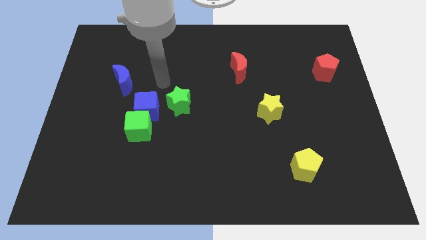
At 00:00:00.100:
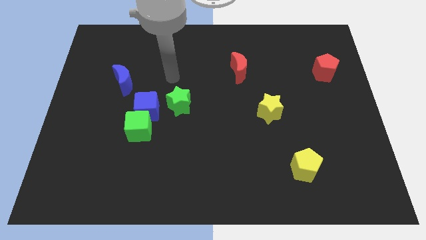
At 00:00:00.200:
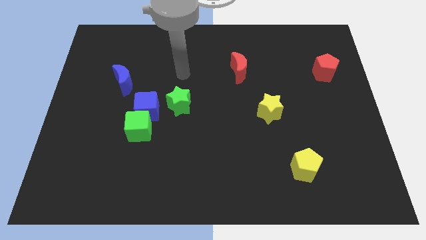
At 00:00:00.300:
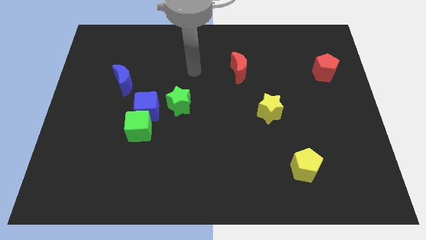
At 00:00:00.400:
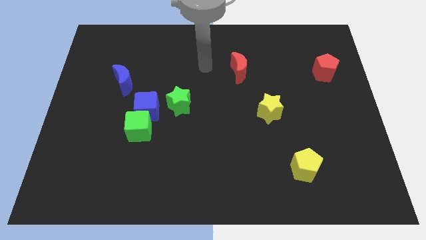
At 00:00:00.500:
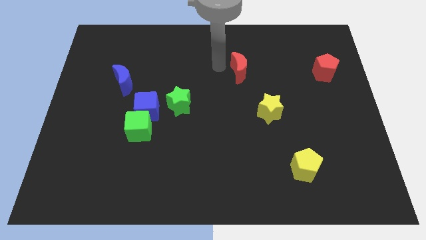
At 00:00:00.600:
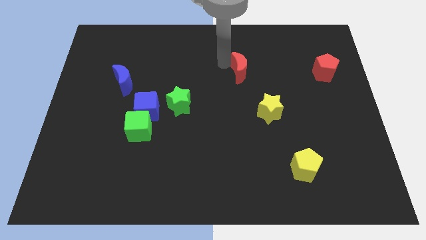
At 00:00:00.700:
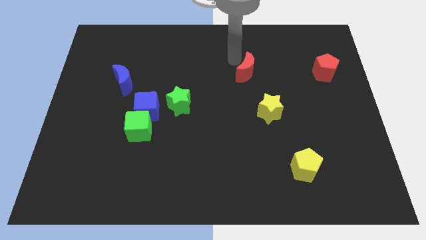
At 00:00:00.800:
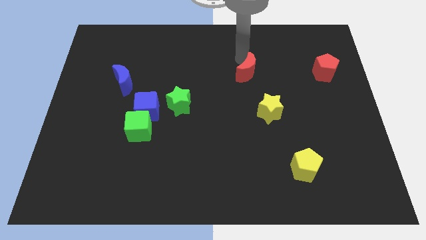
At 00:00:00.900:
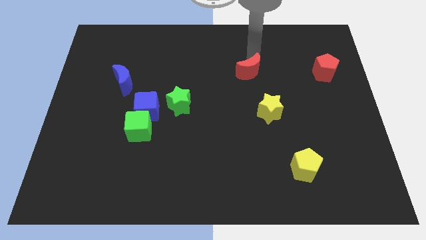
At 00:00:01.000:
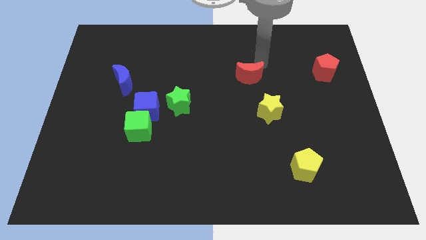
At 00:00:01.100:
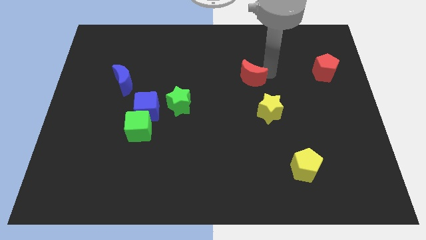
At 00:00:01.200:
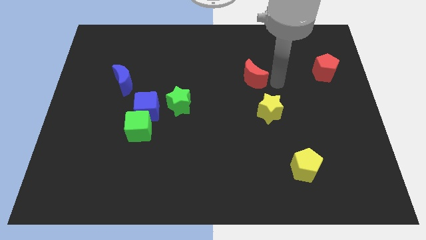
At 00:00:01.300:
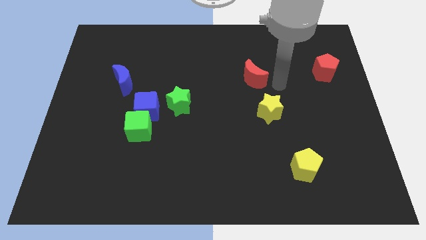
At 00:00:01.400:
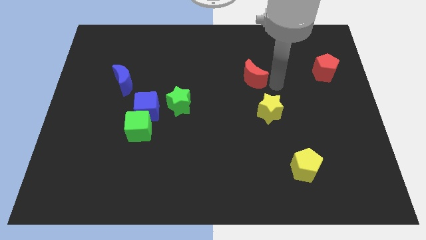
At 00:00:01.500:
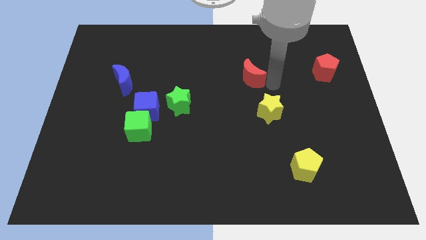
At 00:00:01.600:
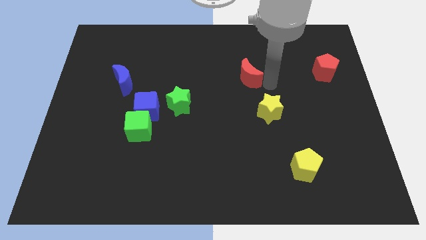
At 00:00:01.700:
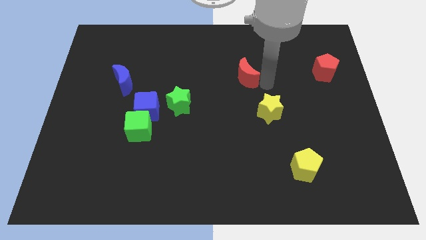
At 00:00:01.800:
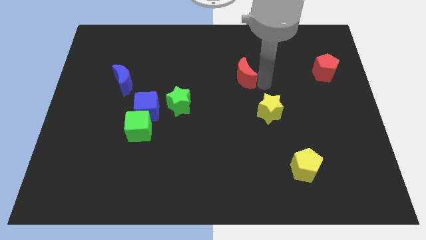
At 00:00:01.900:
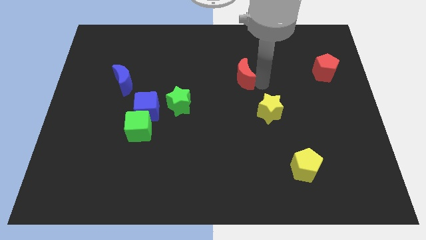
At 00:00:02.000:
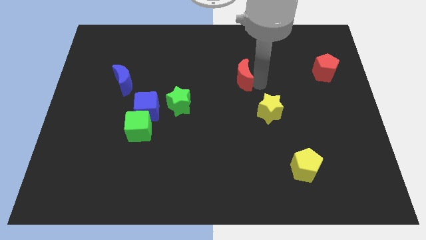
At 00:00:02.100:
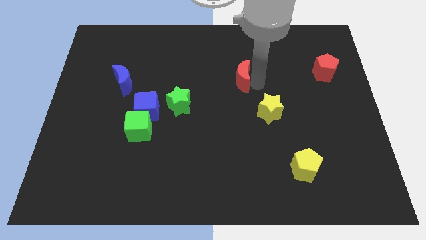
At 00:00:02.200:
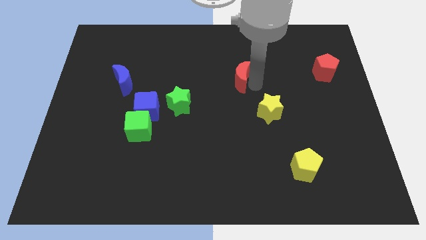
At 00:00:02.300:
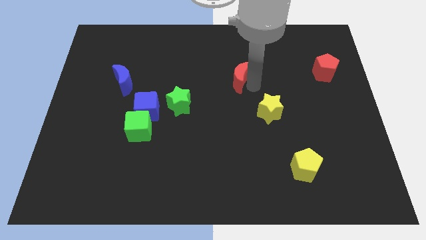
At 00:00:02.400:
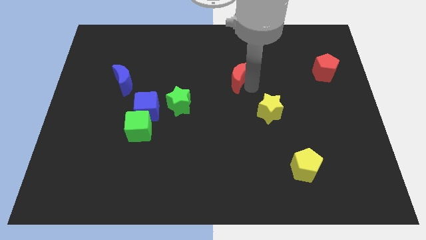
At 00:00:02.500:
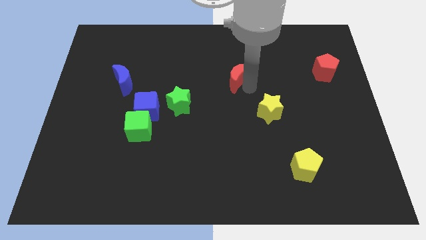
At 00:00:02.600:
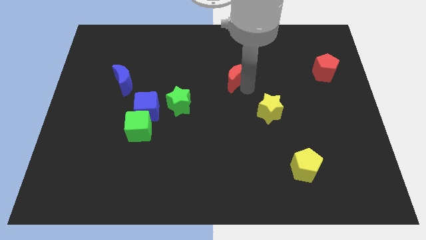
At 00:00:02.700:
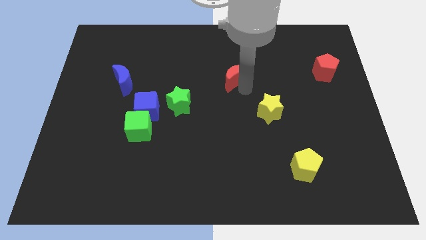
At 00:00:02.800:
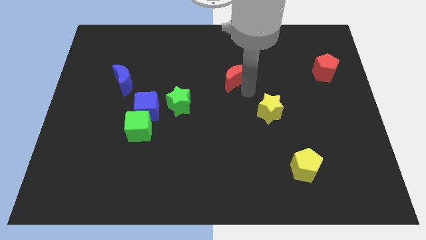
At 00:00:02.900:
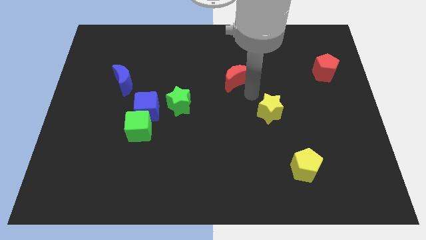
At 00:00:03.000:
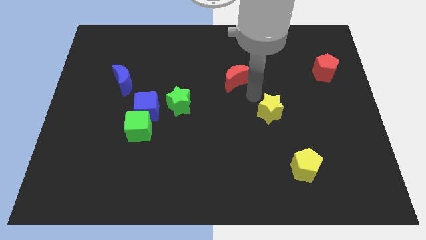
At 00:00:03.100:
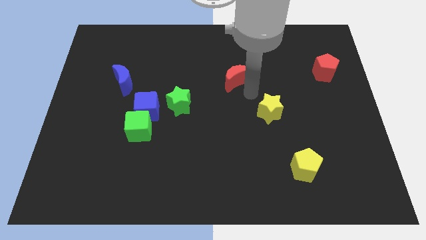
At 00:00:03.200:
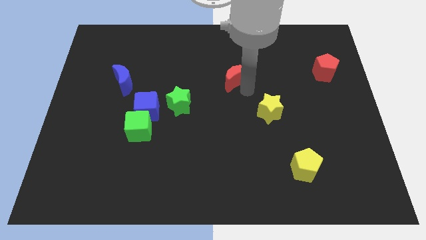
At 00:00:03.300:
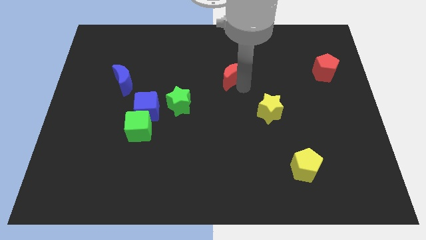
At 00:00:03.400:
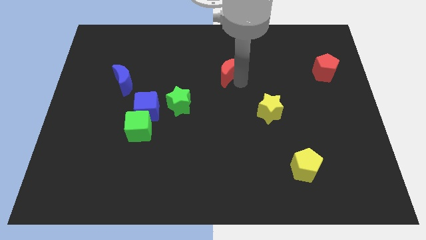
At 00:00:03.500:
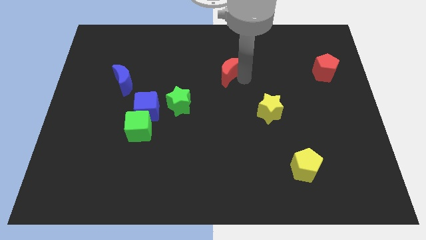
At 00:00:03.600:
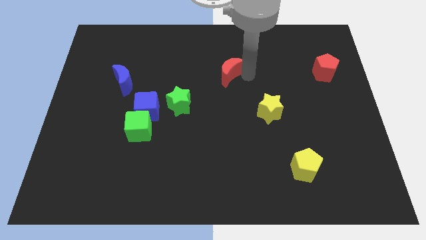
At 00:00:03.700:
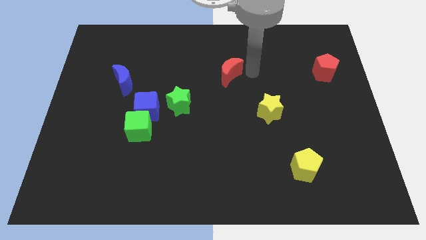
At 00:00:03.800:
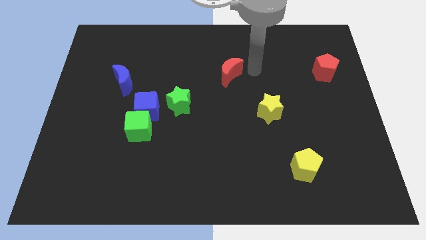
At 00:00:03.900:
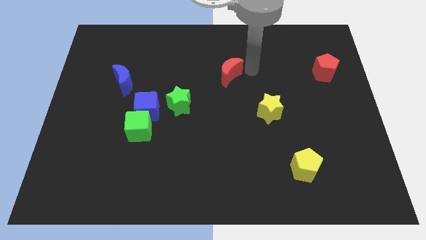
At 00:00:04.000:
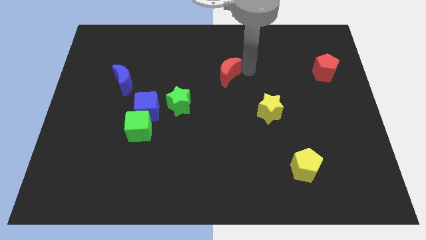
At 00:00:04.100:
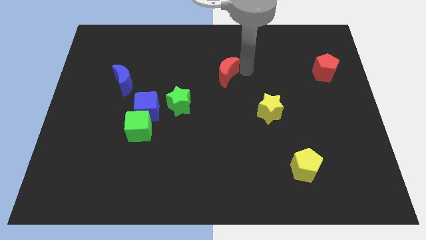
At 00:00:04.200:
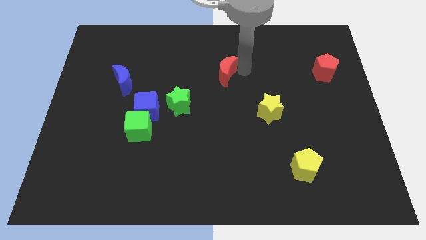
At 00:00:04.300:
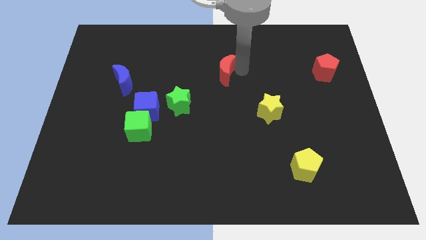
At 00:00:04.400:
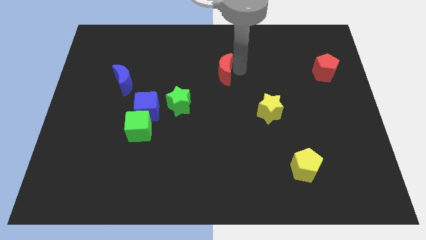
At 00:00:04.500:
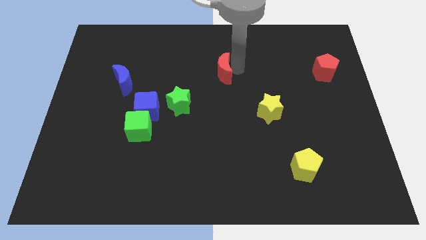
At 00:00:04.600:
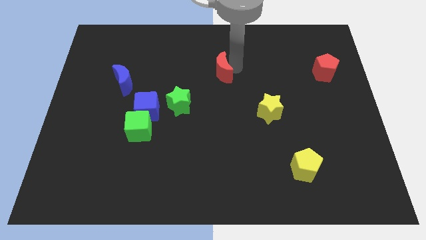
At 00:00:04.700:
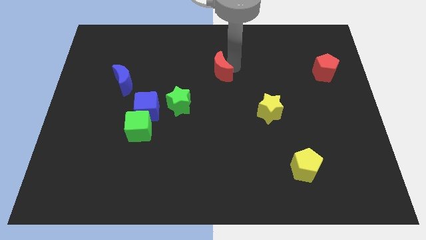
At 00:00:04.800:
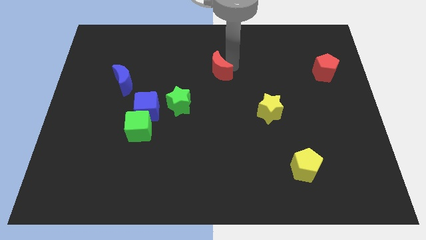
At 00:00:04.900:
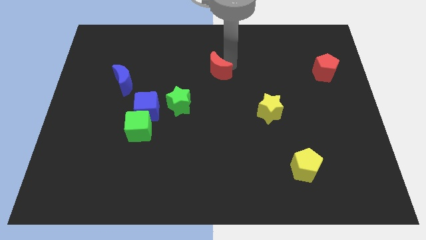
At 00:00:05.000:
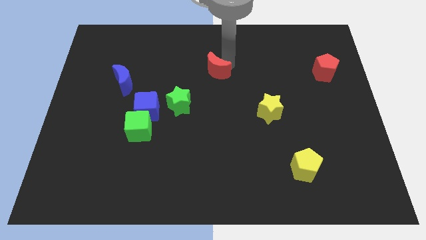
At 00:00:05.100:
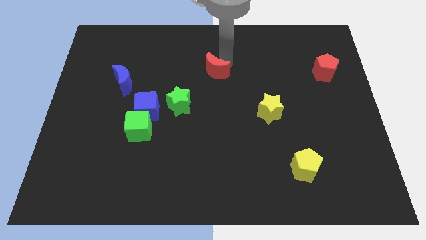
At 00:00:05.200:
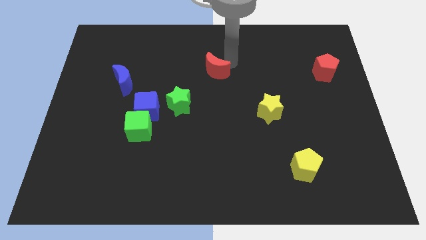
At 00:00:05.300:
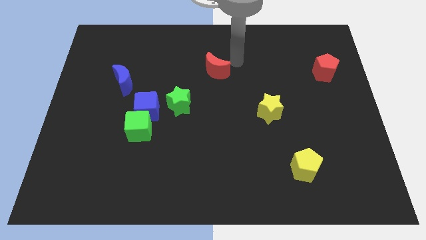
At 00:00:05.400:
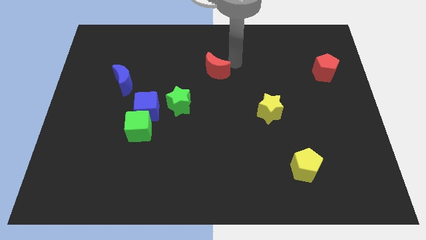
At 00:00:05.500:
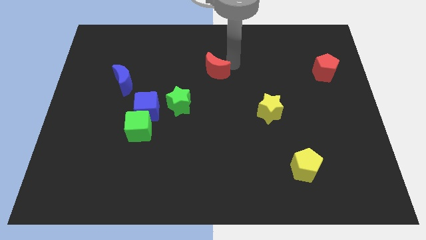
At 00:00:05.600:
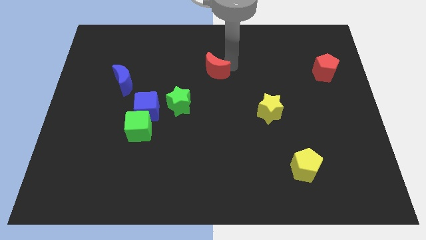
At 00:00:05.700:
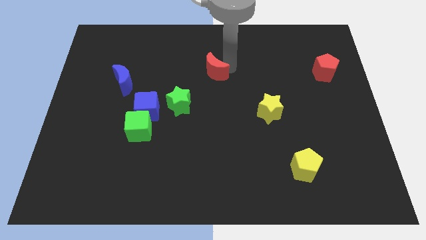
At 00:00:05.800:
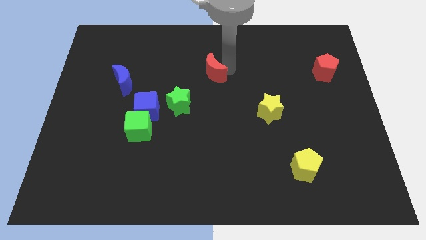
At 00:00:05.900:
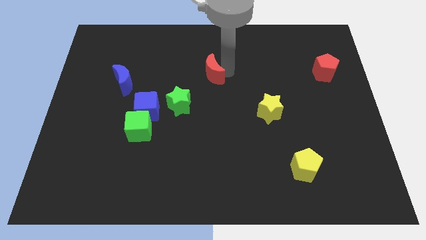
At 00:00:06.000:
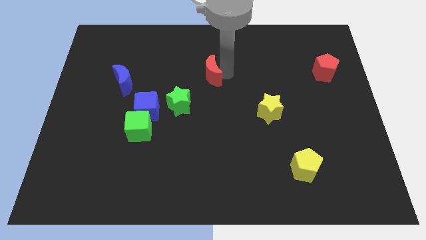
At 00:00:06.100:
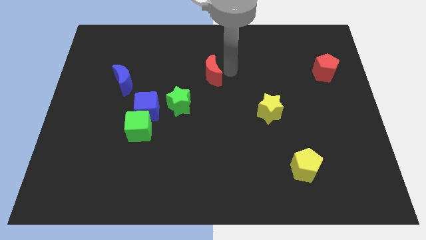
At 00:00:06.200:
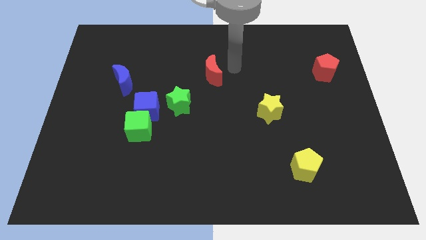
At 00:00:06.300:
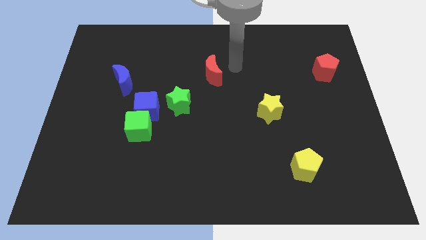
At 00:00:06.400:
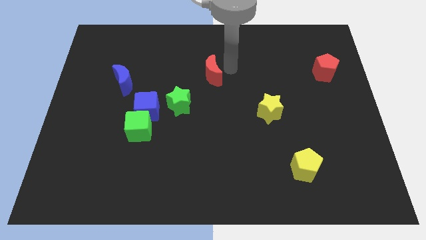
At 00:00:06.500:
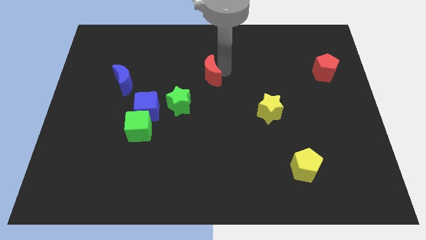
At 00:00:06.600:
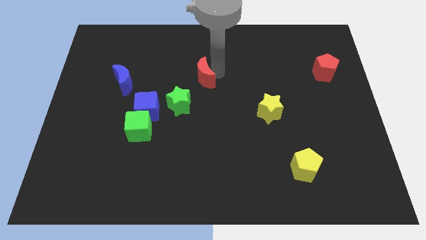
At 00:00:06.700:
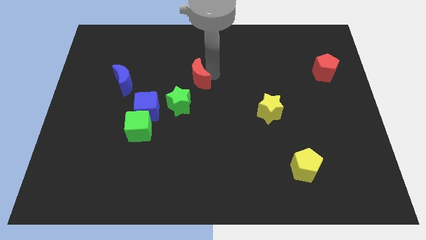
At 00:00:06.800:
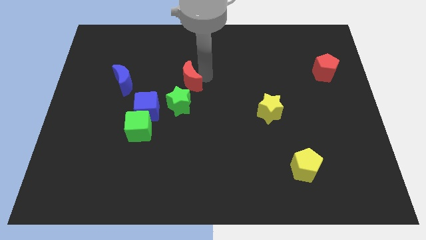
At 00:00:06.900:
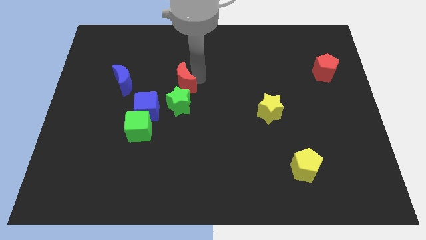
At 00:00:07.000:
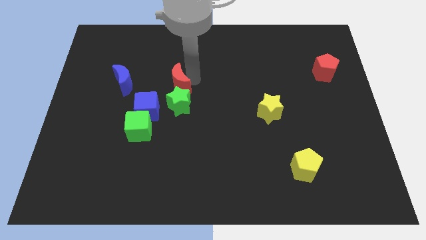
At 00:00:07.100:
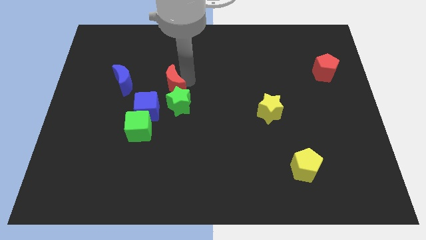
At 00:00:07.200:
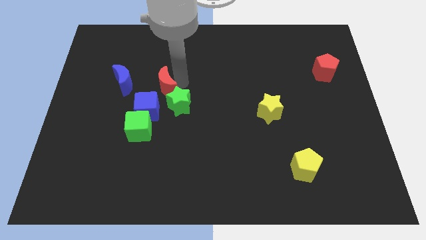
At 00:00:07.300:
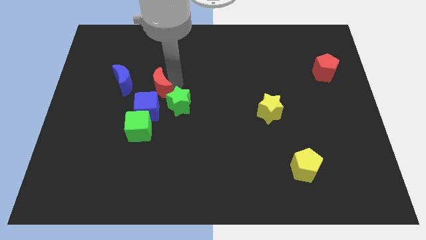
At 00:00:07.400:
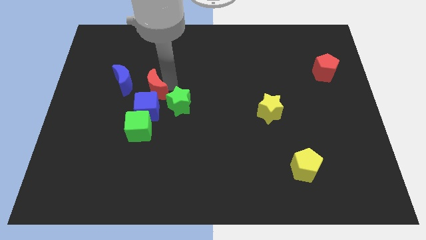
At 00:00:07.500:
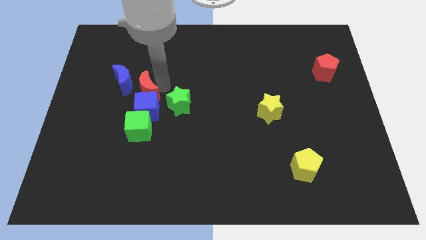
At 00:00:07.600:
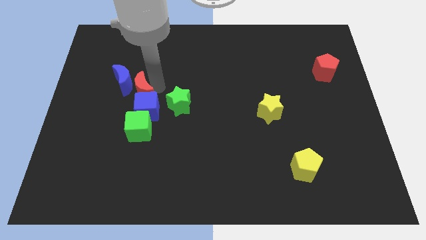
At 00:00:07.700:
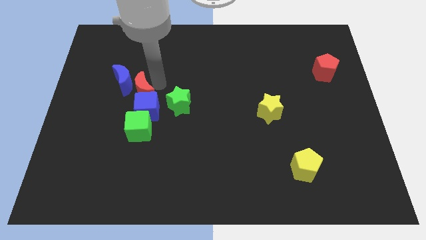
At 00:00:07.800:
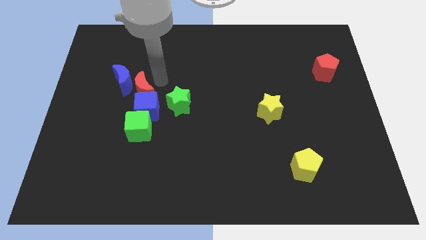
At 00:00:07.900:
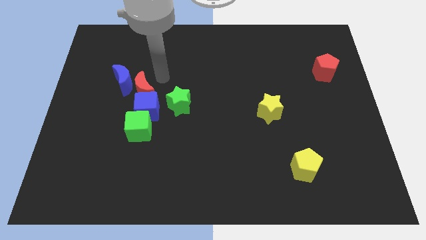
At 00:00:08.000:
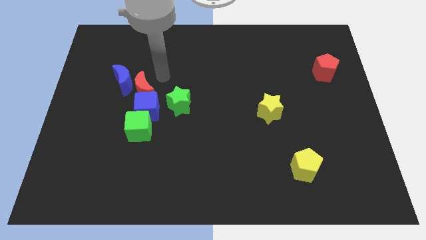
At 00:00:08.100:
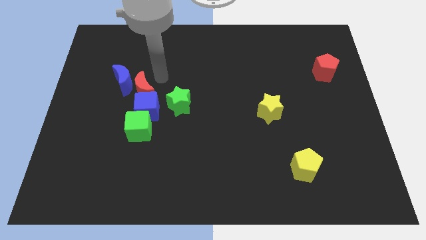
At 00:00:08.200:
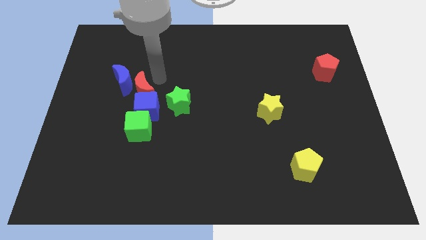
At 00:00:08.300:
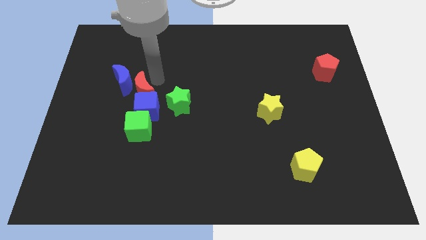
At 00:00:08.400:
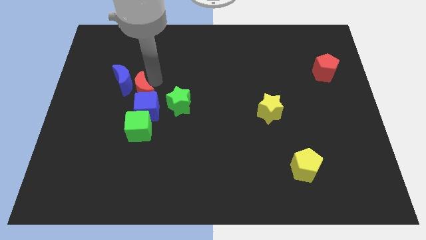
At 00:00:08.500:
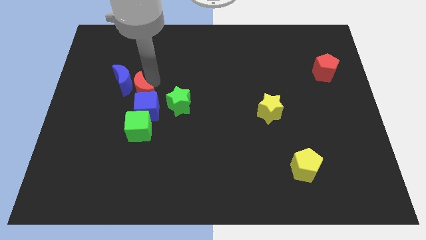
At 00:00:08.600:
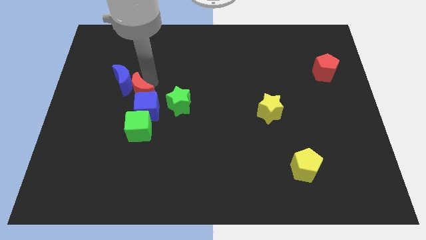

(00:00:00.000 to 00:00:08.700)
push the red moon to the bottom side of the blue moon
